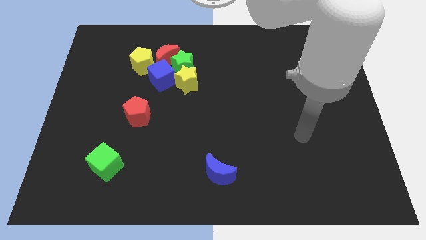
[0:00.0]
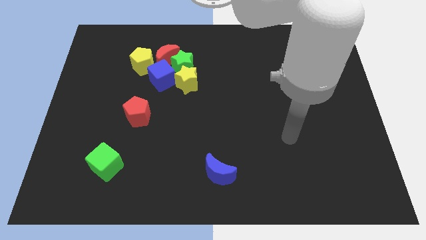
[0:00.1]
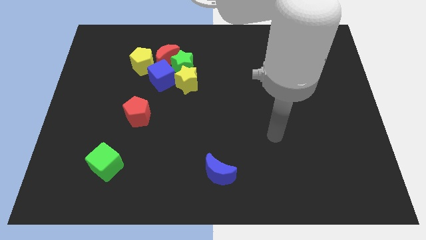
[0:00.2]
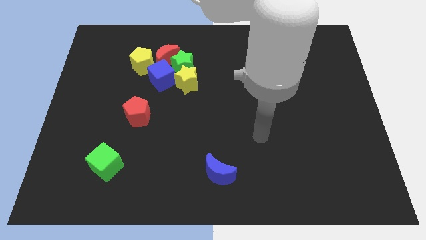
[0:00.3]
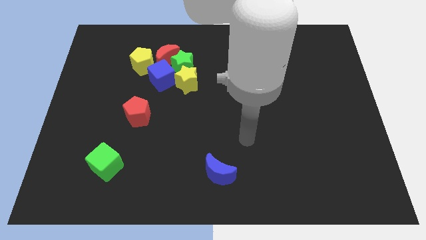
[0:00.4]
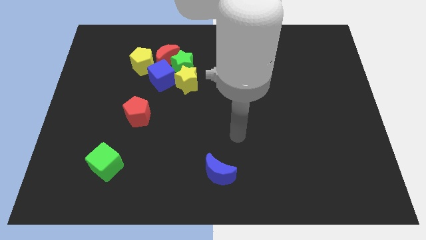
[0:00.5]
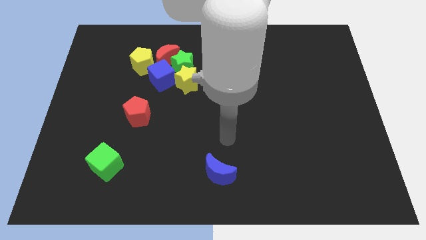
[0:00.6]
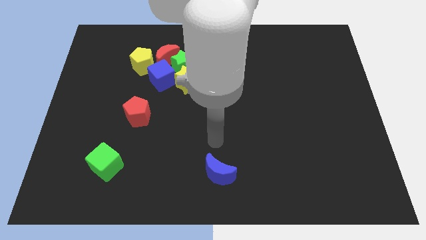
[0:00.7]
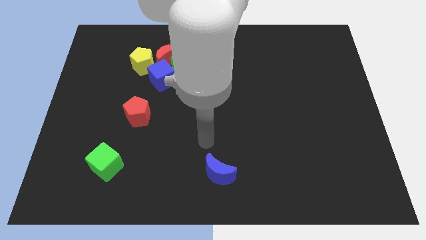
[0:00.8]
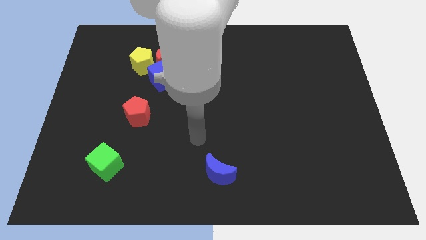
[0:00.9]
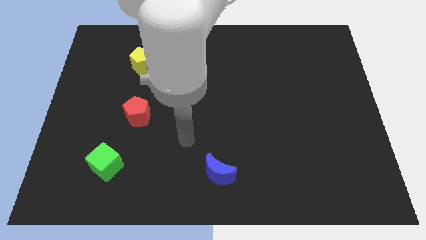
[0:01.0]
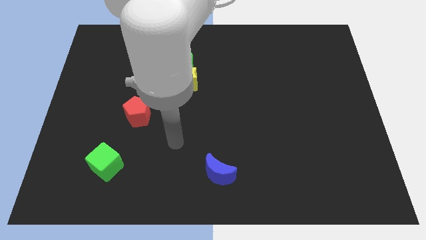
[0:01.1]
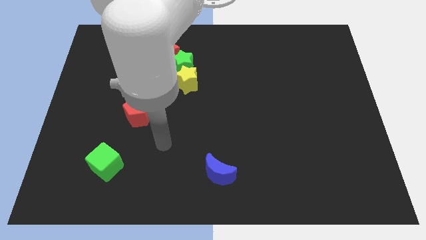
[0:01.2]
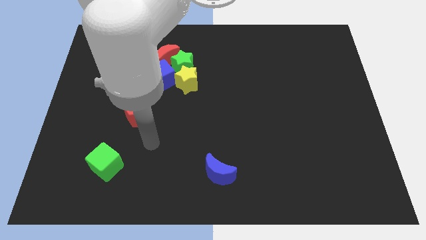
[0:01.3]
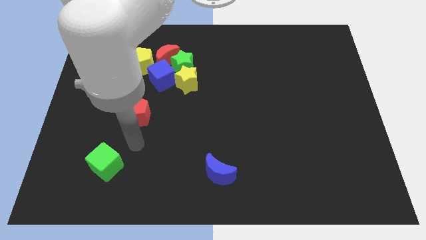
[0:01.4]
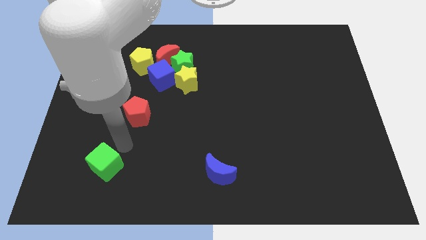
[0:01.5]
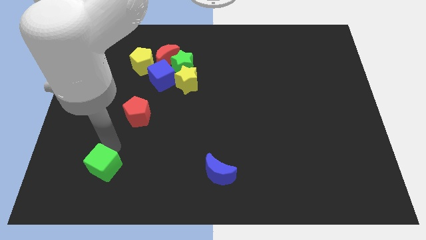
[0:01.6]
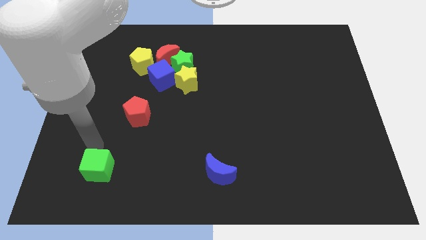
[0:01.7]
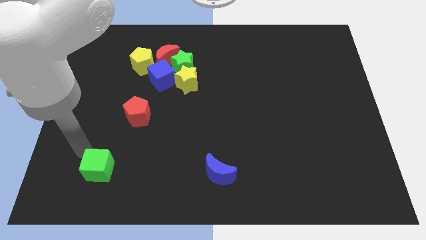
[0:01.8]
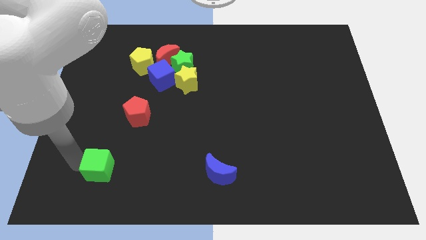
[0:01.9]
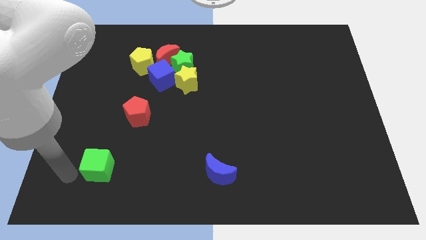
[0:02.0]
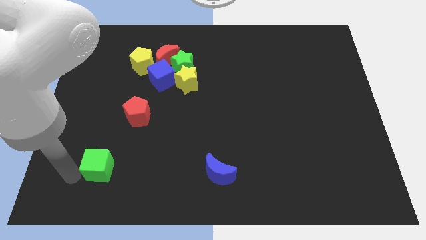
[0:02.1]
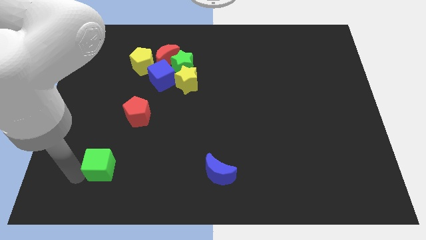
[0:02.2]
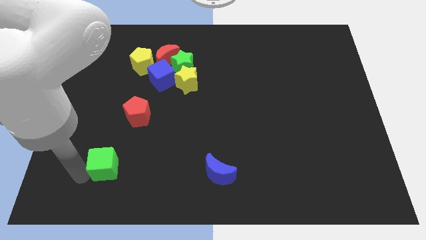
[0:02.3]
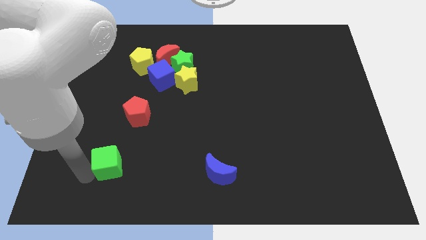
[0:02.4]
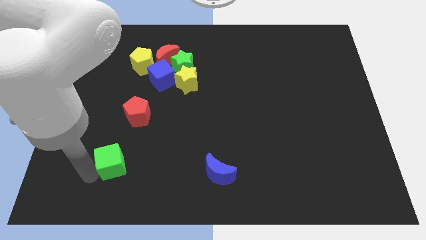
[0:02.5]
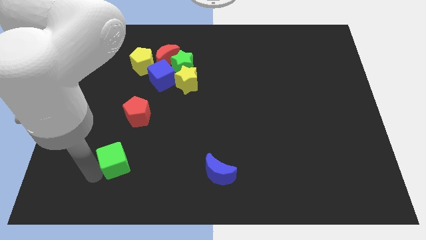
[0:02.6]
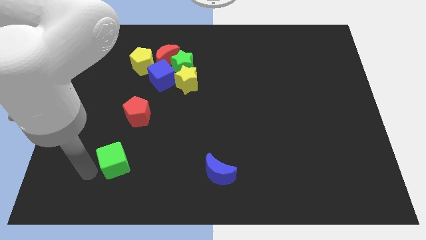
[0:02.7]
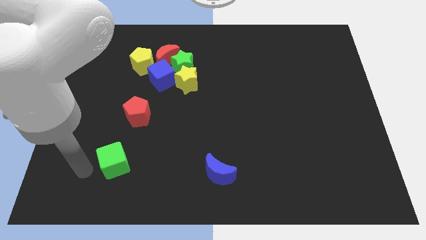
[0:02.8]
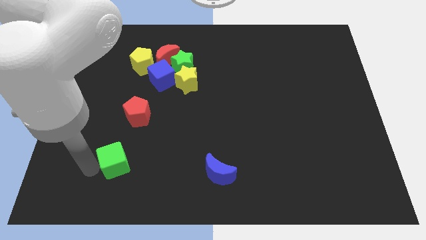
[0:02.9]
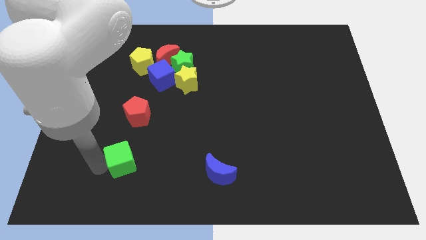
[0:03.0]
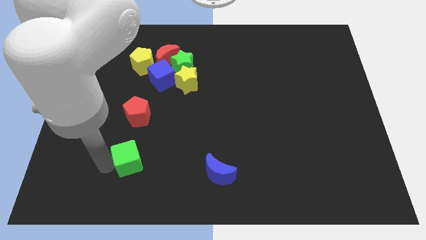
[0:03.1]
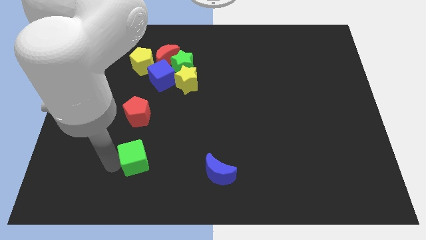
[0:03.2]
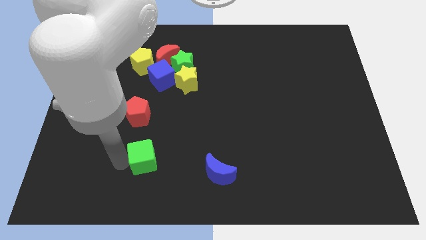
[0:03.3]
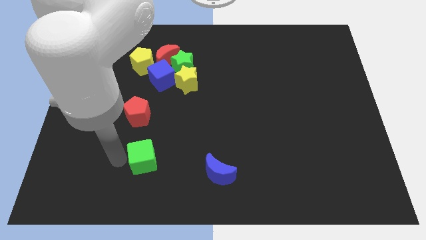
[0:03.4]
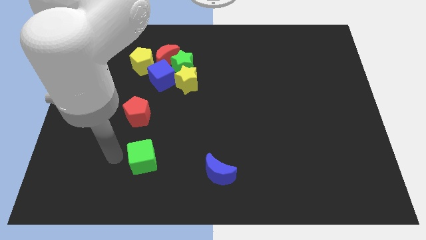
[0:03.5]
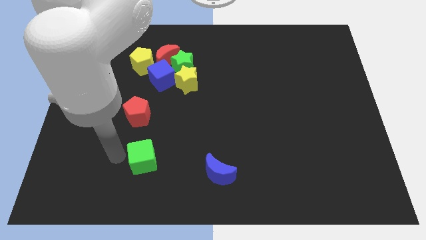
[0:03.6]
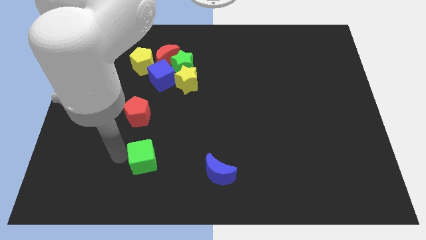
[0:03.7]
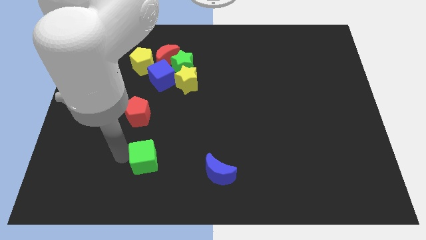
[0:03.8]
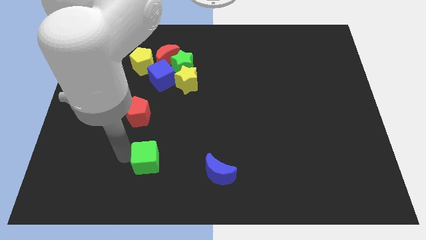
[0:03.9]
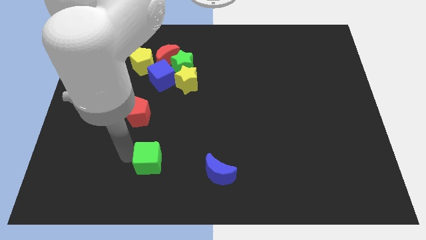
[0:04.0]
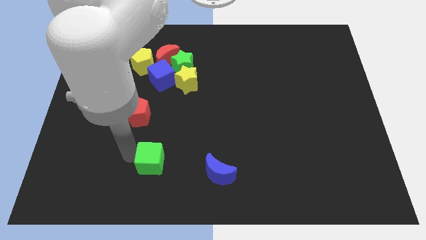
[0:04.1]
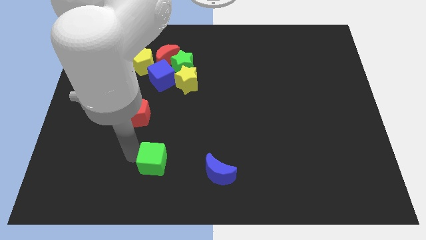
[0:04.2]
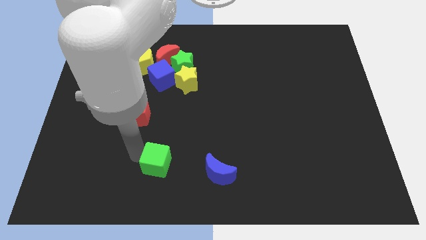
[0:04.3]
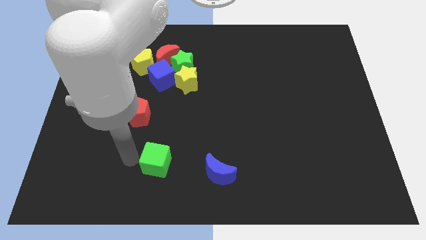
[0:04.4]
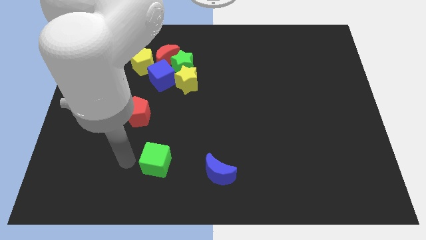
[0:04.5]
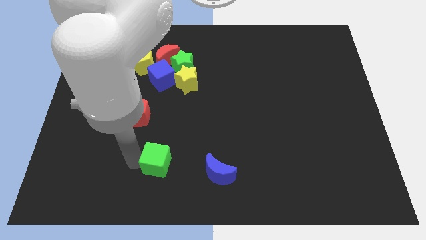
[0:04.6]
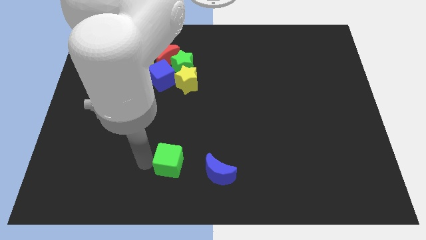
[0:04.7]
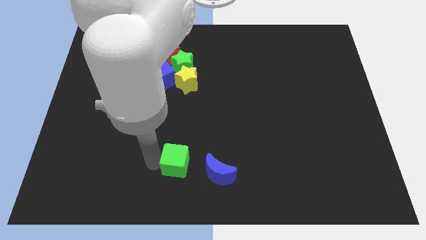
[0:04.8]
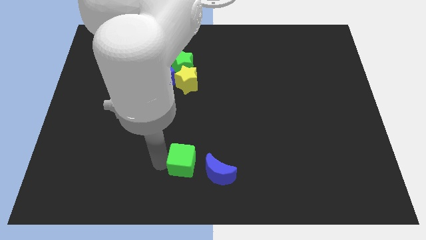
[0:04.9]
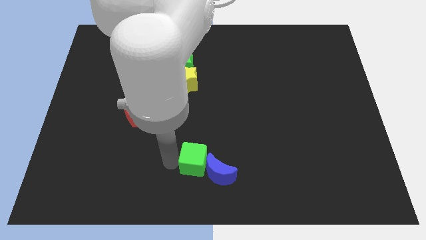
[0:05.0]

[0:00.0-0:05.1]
put the green cube towards the blue moon

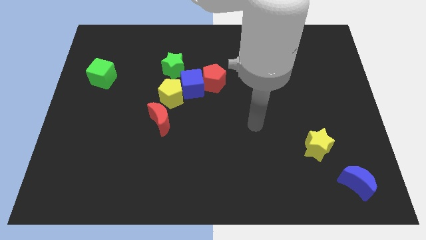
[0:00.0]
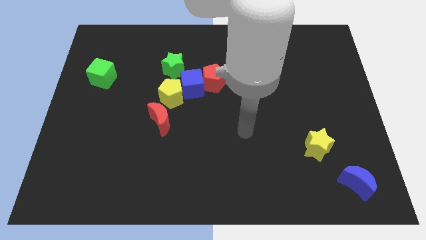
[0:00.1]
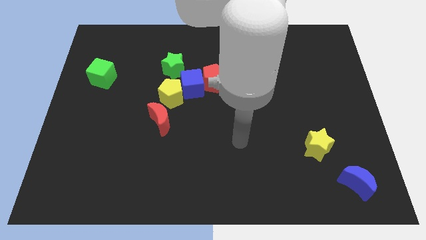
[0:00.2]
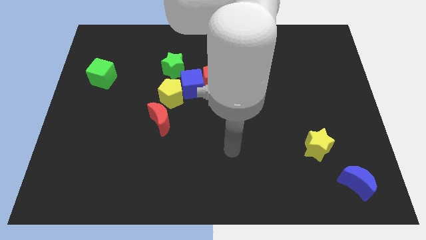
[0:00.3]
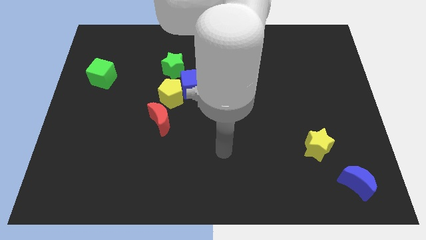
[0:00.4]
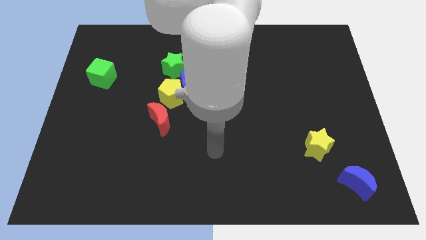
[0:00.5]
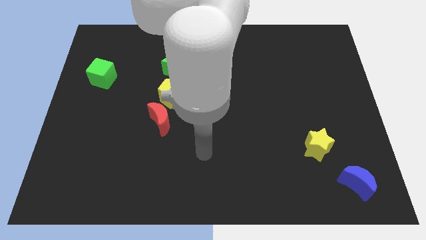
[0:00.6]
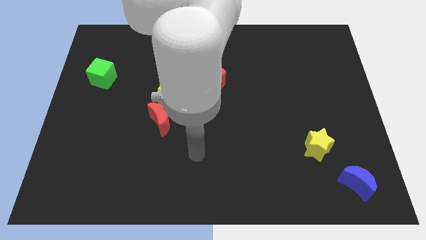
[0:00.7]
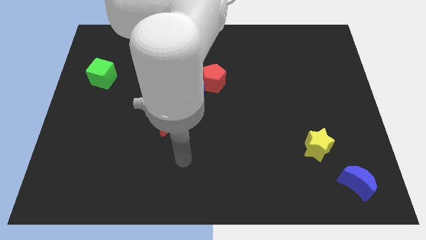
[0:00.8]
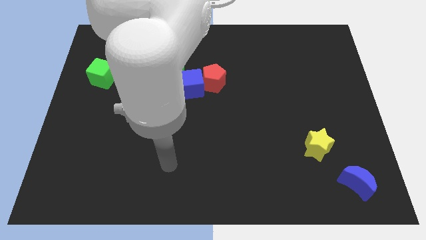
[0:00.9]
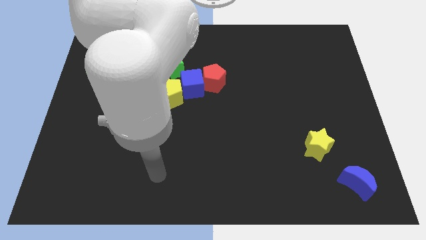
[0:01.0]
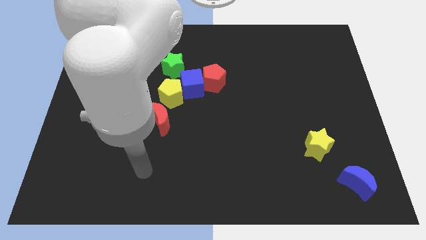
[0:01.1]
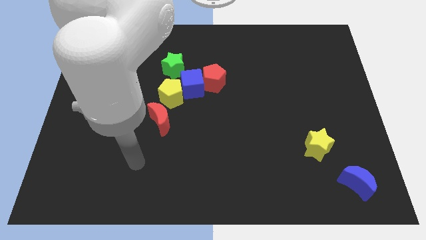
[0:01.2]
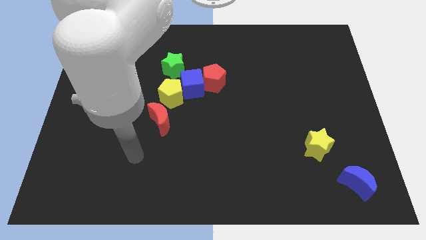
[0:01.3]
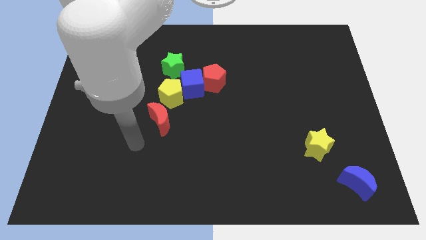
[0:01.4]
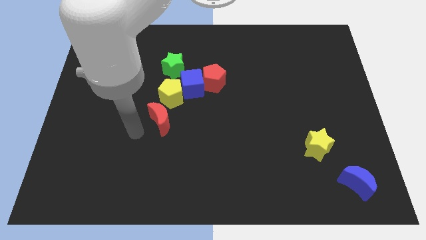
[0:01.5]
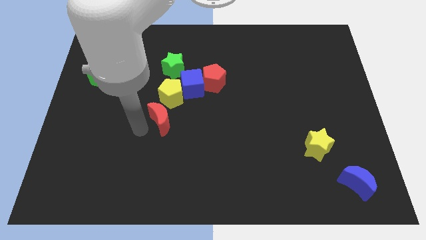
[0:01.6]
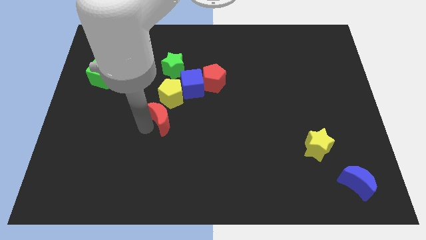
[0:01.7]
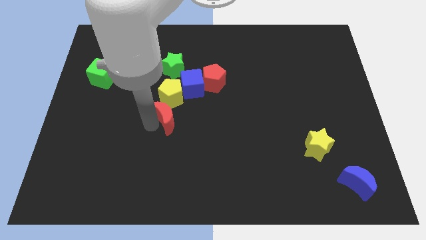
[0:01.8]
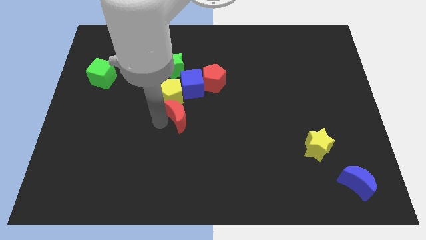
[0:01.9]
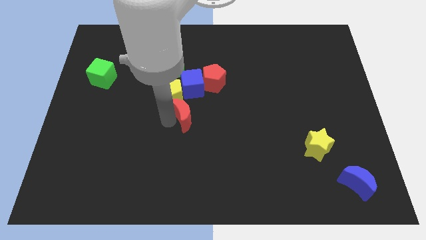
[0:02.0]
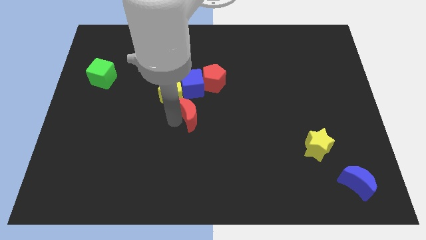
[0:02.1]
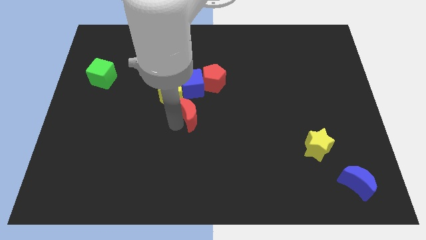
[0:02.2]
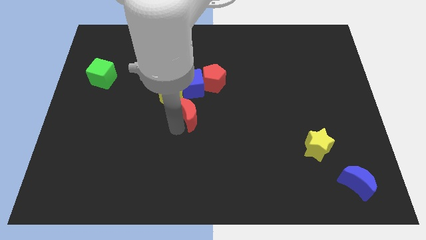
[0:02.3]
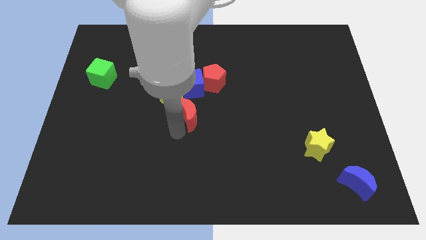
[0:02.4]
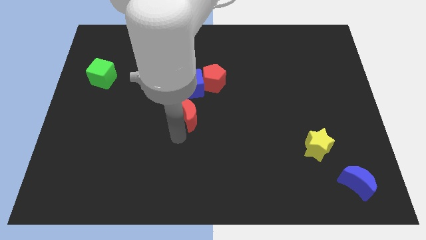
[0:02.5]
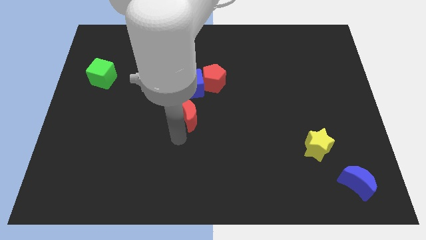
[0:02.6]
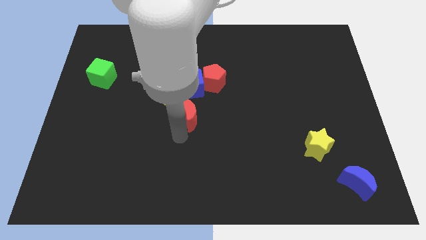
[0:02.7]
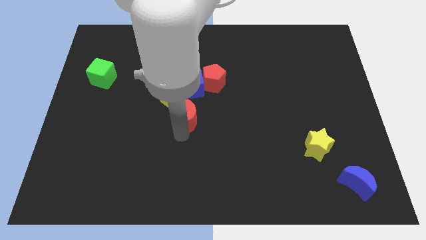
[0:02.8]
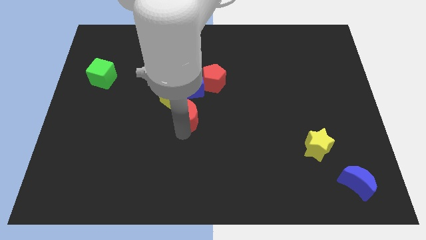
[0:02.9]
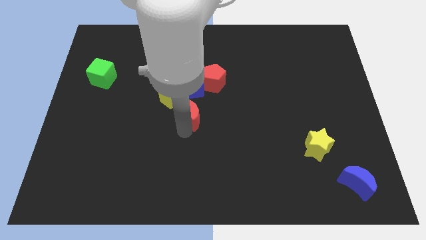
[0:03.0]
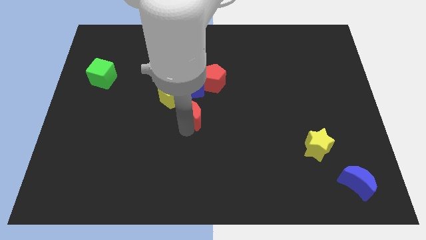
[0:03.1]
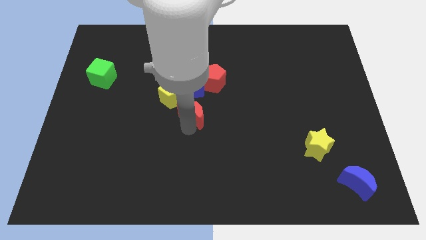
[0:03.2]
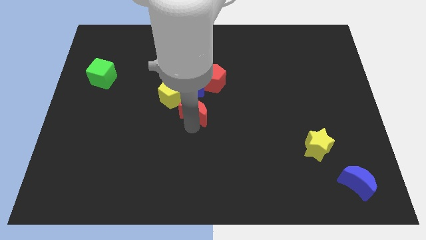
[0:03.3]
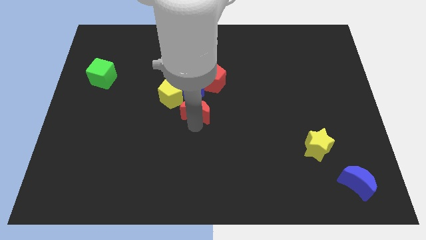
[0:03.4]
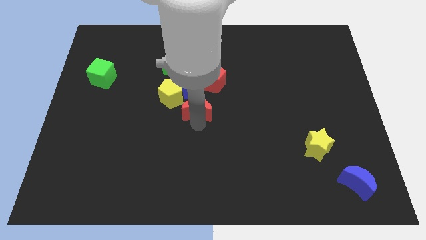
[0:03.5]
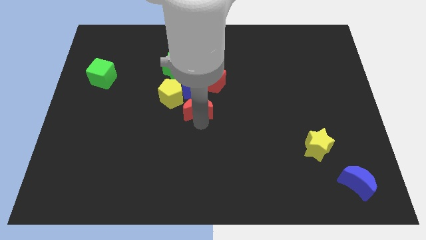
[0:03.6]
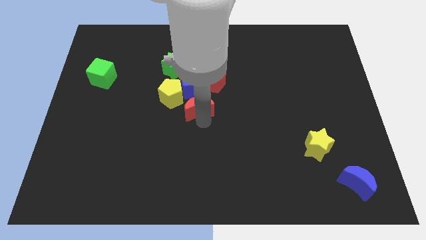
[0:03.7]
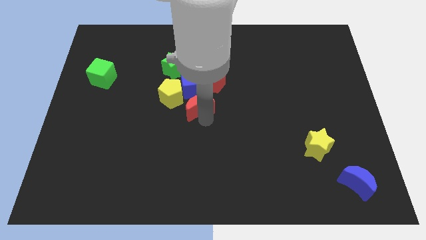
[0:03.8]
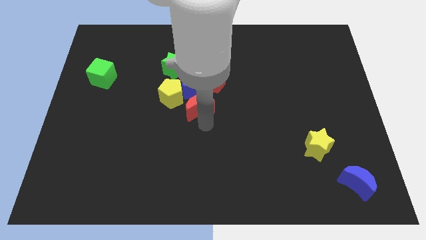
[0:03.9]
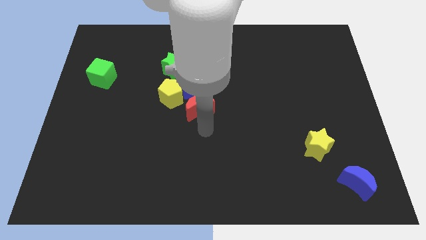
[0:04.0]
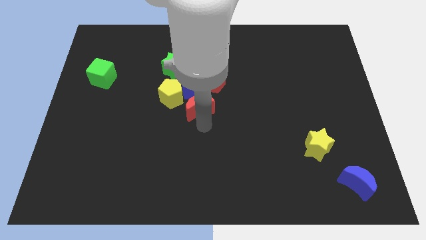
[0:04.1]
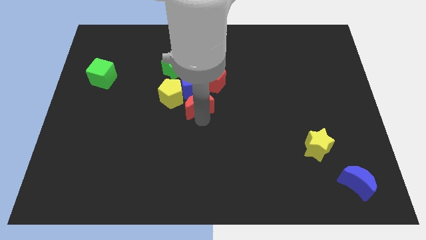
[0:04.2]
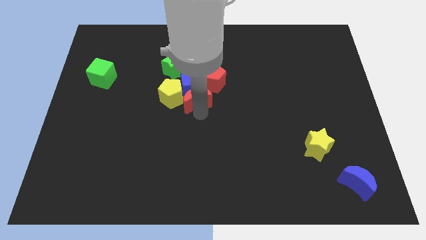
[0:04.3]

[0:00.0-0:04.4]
put the red moon close to the blue cube
